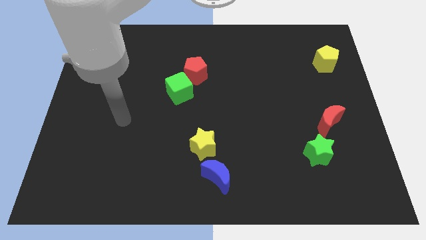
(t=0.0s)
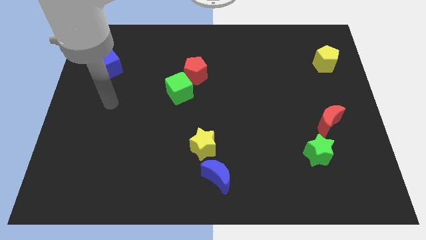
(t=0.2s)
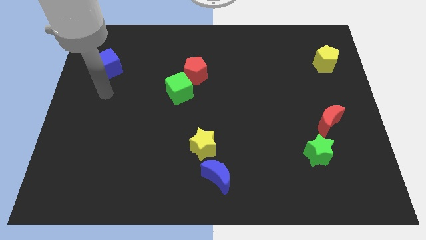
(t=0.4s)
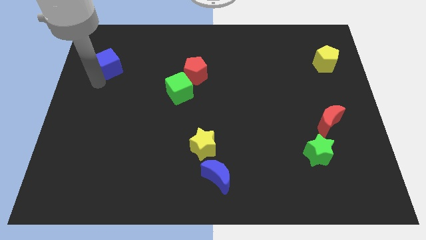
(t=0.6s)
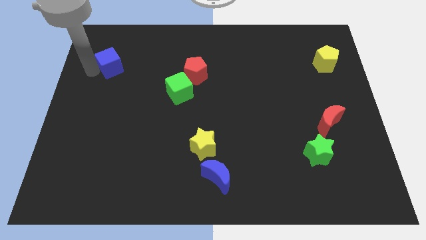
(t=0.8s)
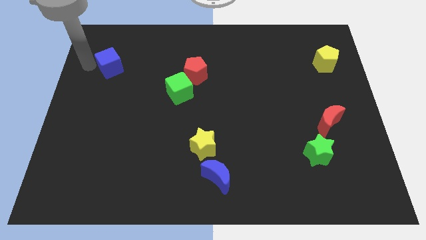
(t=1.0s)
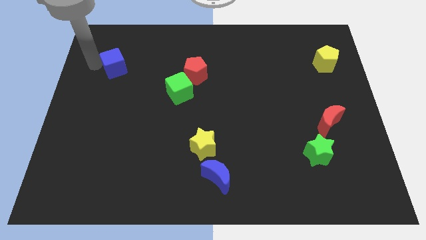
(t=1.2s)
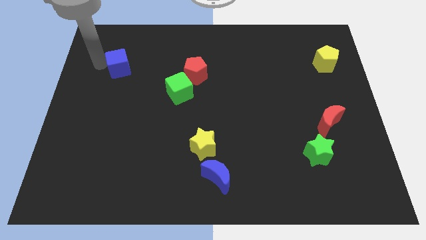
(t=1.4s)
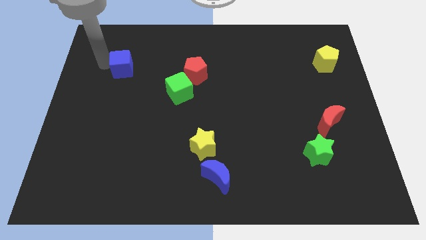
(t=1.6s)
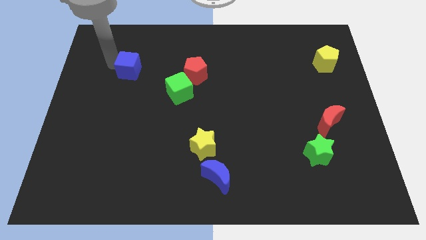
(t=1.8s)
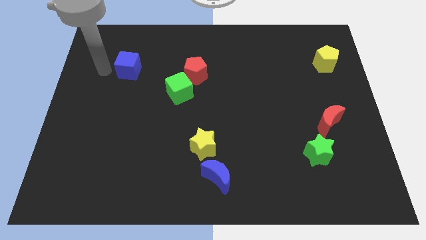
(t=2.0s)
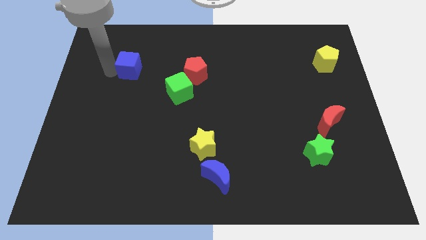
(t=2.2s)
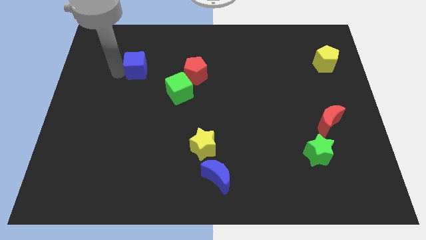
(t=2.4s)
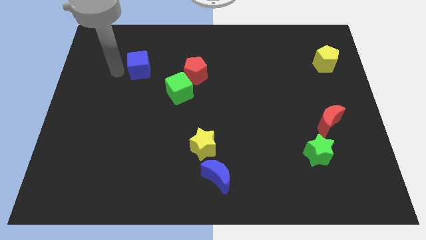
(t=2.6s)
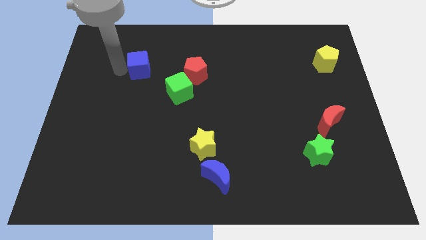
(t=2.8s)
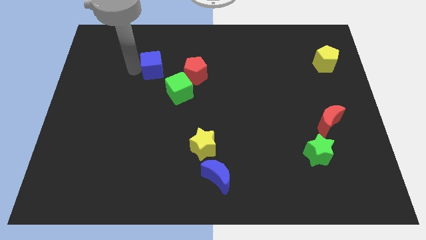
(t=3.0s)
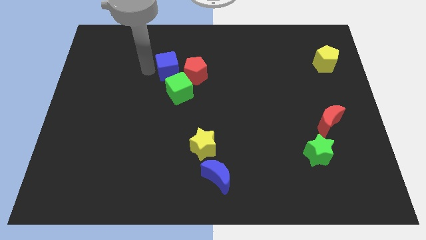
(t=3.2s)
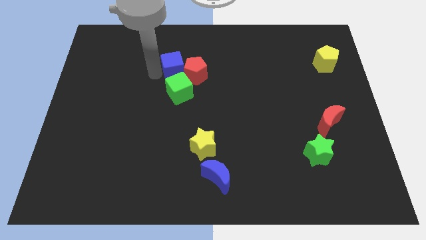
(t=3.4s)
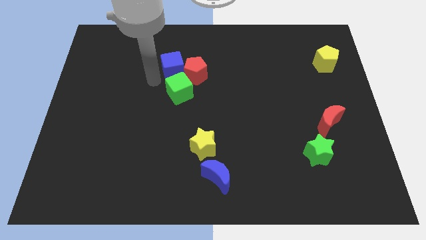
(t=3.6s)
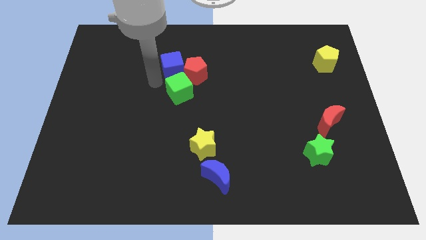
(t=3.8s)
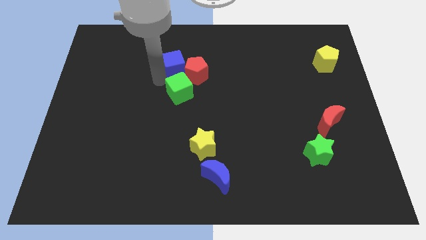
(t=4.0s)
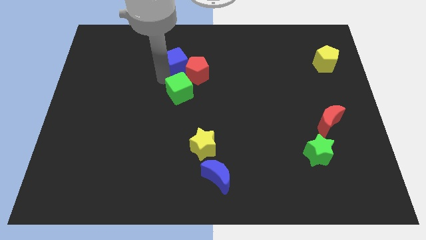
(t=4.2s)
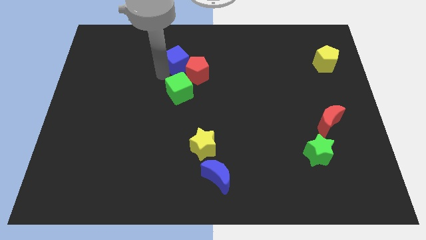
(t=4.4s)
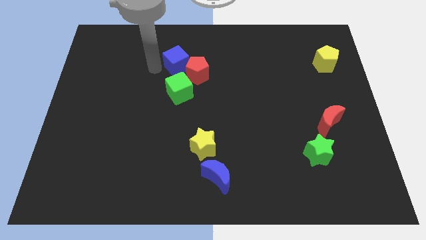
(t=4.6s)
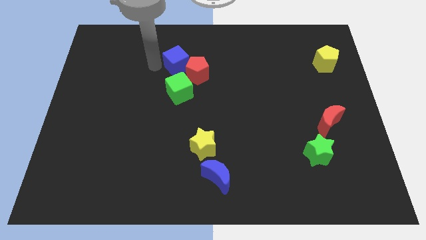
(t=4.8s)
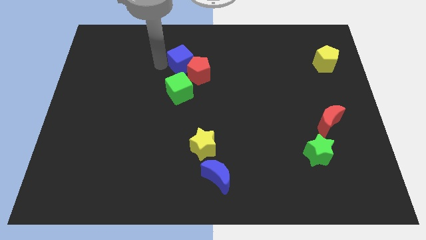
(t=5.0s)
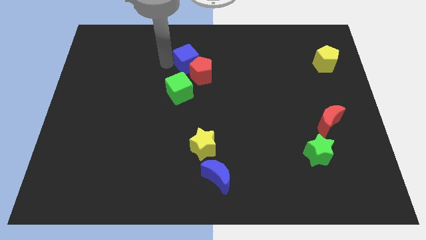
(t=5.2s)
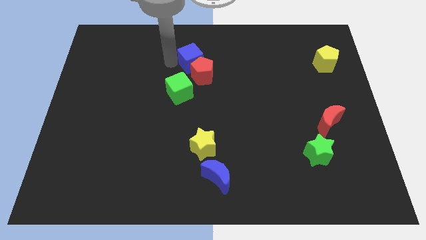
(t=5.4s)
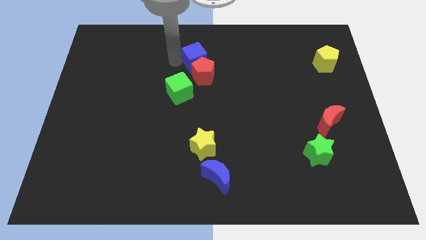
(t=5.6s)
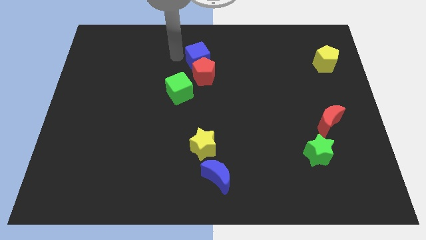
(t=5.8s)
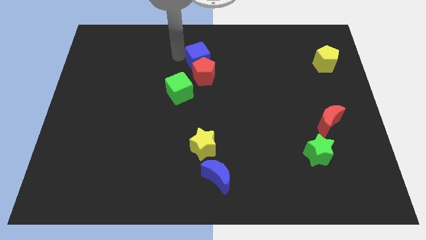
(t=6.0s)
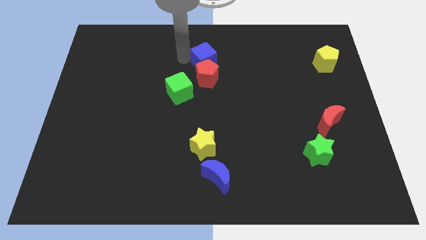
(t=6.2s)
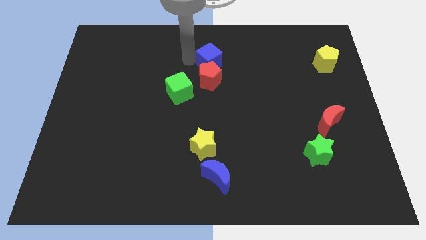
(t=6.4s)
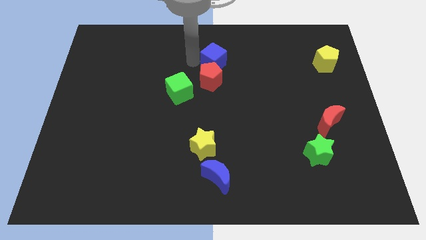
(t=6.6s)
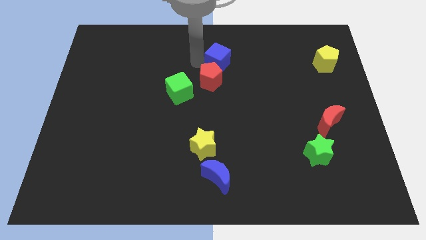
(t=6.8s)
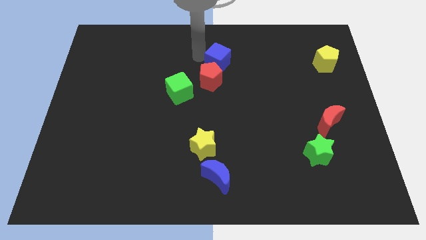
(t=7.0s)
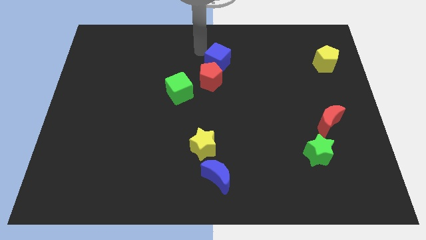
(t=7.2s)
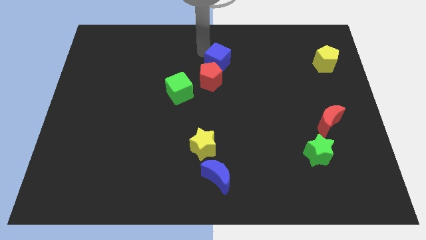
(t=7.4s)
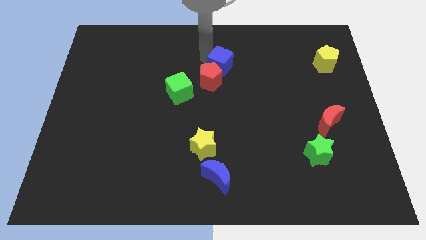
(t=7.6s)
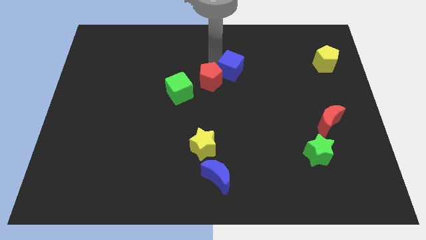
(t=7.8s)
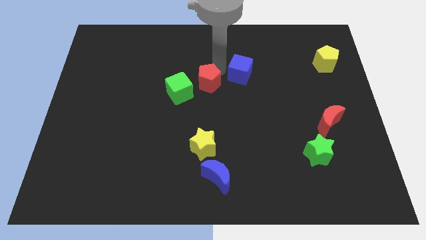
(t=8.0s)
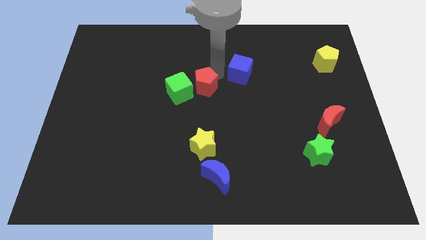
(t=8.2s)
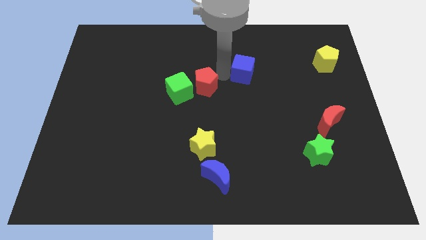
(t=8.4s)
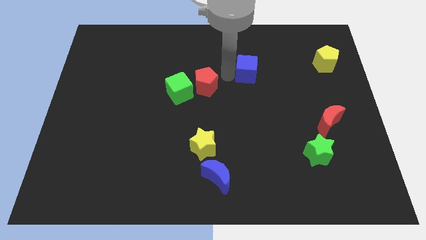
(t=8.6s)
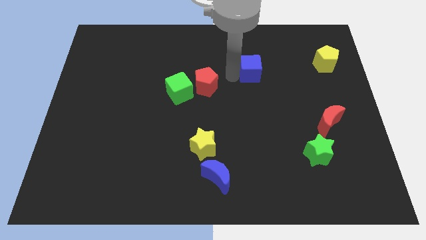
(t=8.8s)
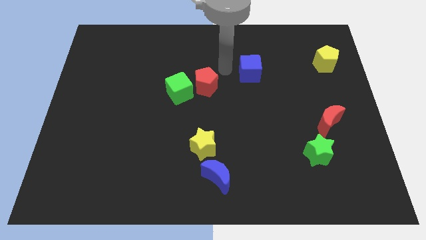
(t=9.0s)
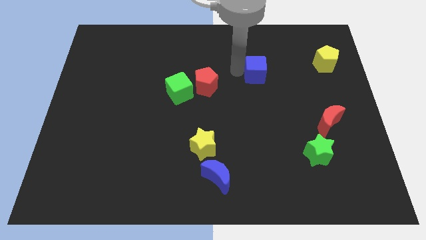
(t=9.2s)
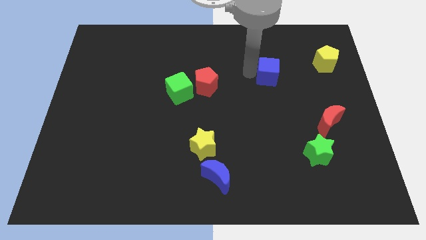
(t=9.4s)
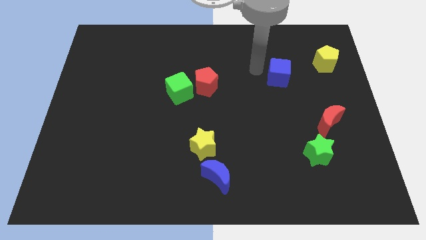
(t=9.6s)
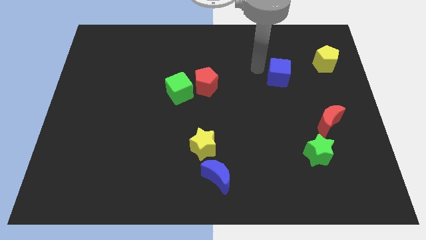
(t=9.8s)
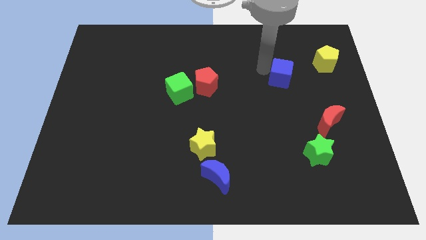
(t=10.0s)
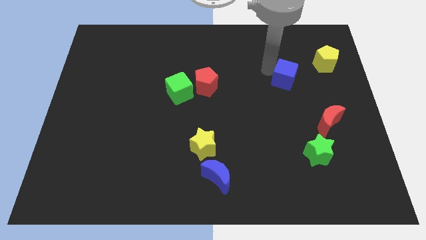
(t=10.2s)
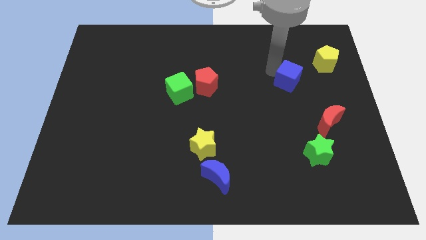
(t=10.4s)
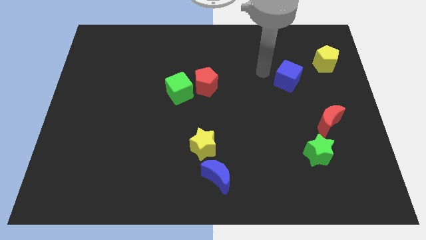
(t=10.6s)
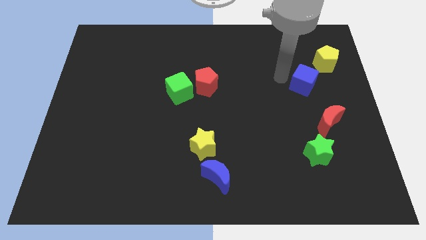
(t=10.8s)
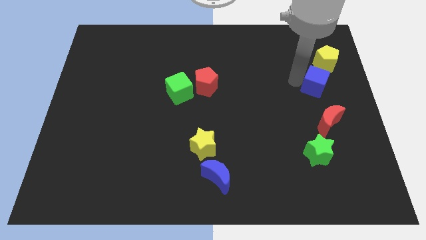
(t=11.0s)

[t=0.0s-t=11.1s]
put the blue cube below the yellow pentagon

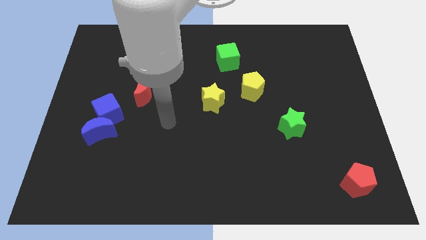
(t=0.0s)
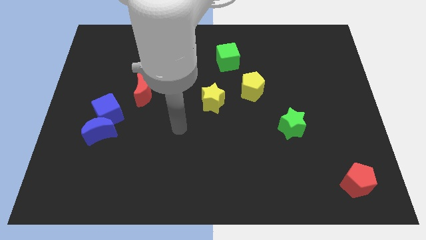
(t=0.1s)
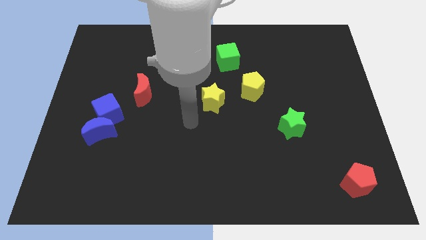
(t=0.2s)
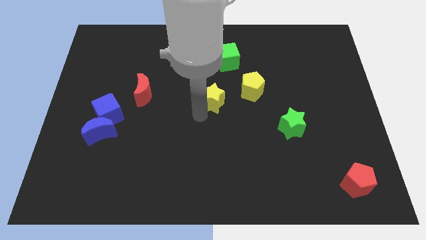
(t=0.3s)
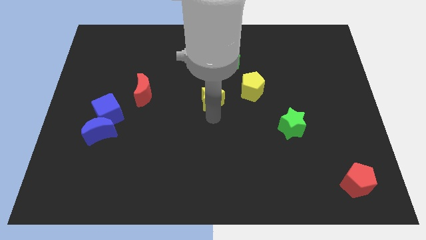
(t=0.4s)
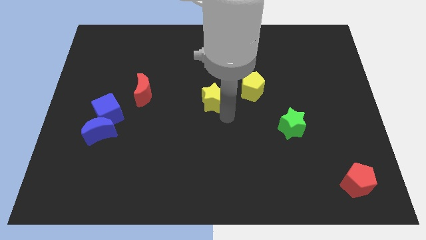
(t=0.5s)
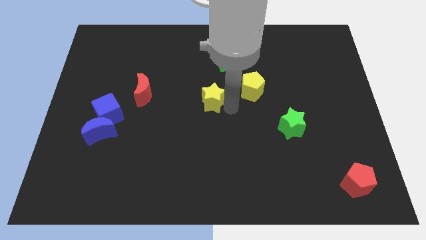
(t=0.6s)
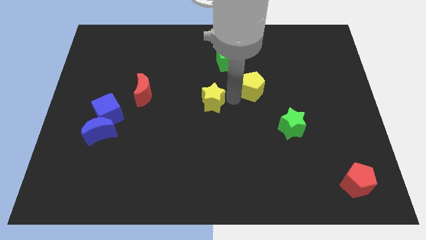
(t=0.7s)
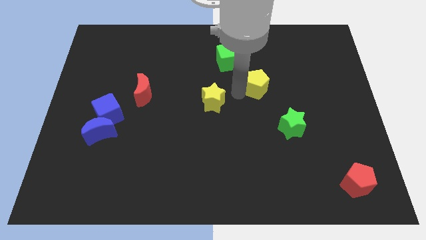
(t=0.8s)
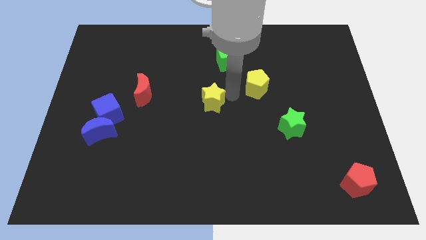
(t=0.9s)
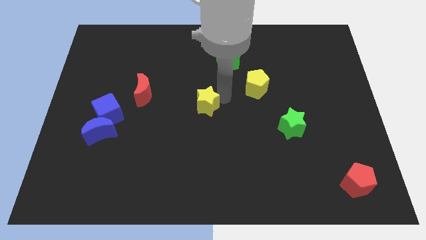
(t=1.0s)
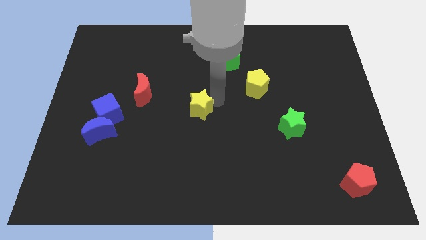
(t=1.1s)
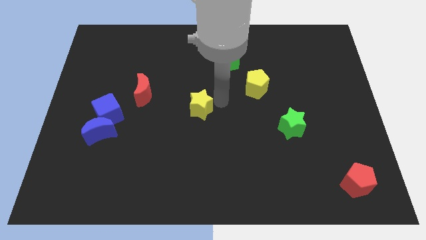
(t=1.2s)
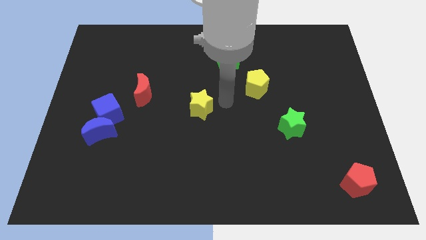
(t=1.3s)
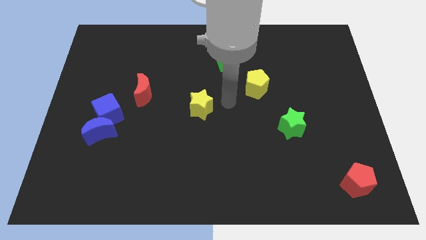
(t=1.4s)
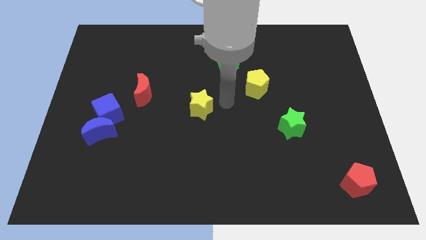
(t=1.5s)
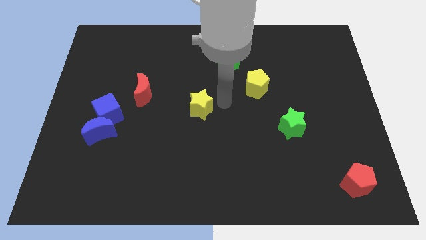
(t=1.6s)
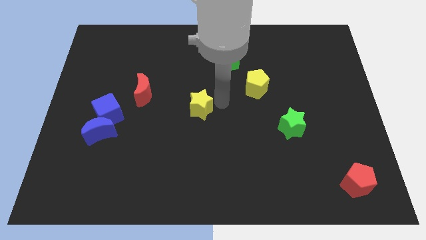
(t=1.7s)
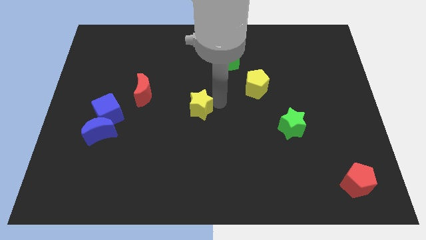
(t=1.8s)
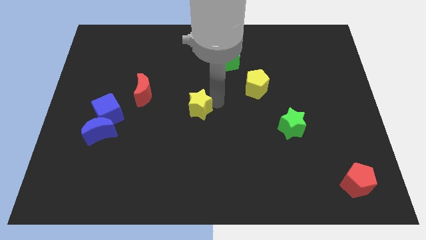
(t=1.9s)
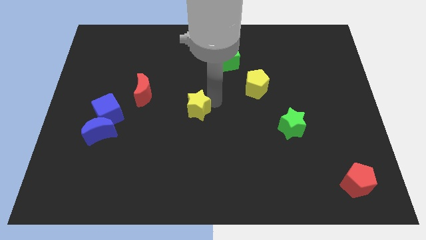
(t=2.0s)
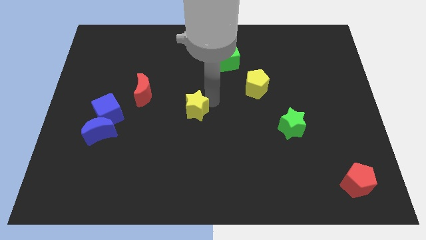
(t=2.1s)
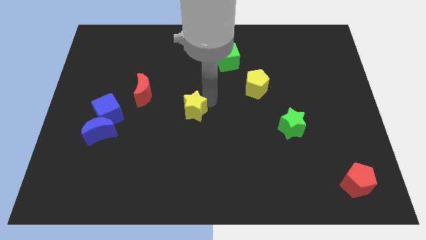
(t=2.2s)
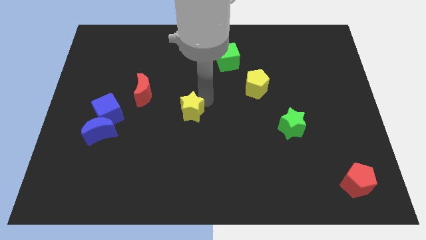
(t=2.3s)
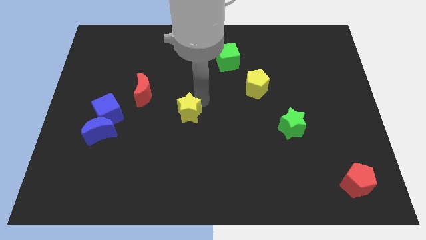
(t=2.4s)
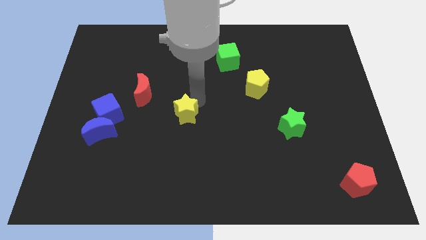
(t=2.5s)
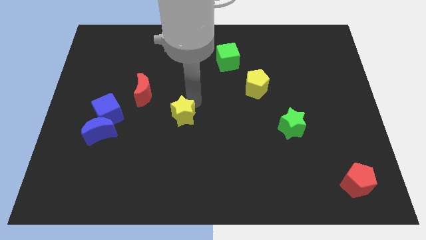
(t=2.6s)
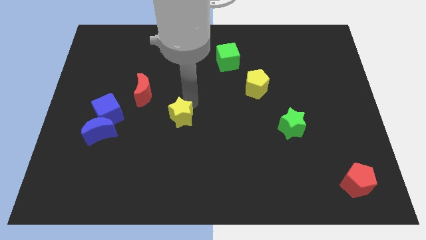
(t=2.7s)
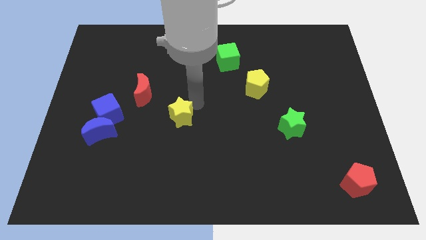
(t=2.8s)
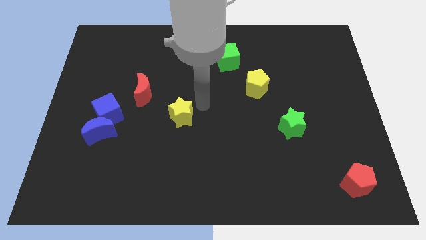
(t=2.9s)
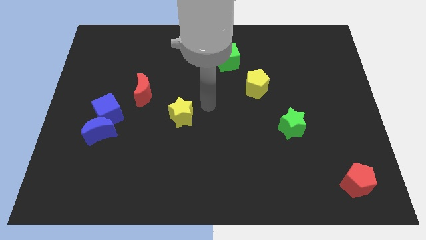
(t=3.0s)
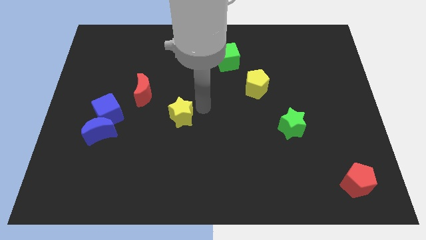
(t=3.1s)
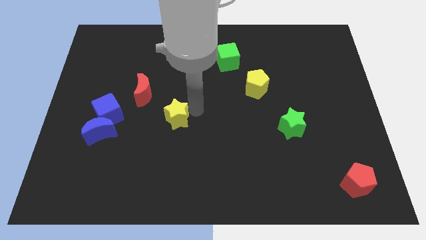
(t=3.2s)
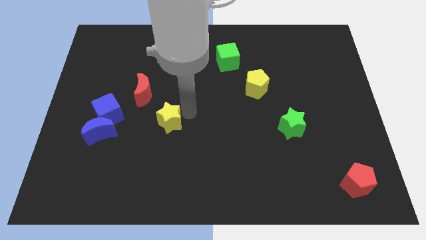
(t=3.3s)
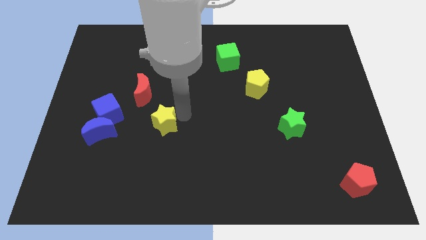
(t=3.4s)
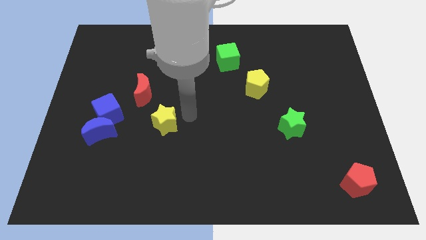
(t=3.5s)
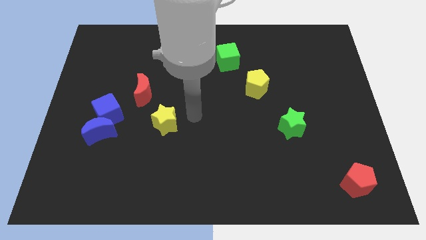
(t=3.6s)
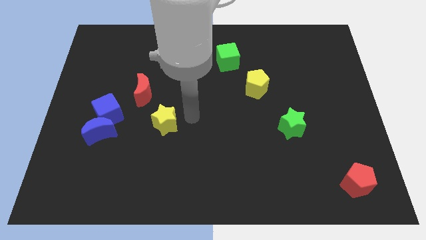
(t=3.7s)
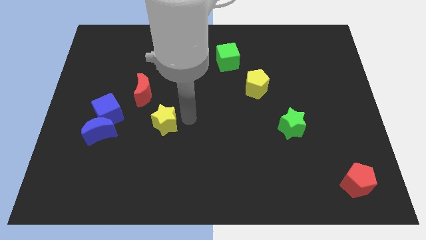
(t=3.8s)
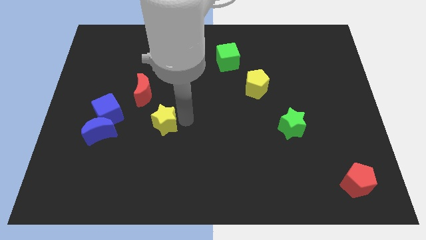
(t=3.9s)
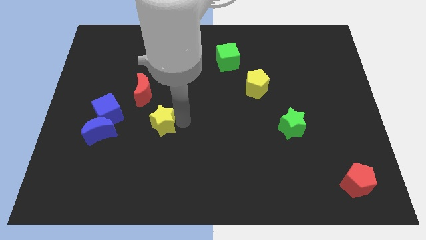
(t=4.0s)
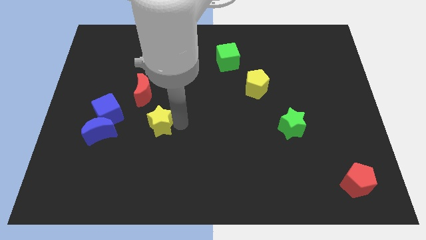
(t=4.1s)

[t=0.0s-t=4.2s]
push the yellow star to the bottom of the red moon
